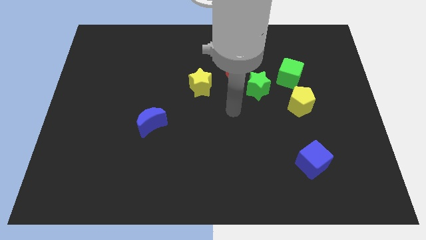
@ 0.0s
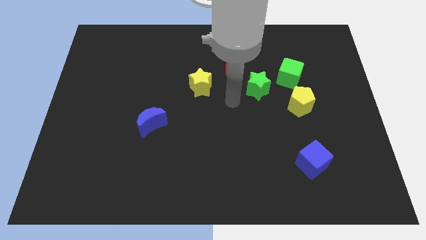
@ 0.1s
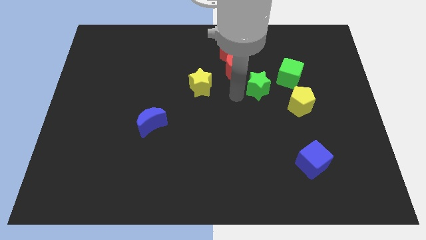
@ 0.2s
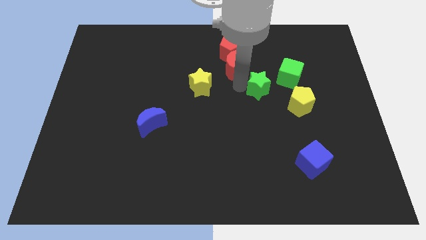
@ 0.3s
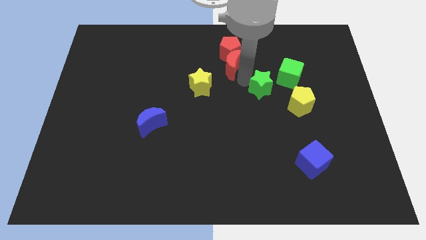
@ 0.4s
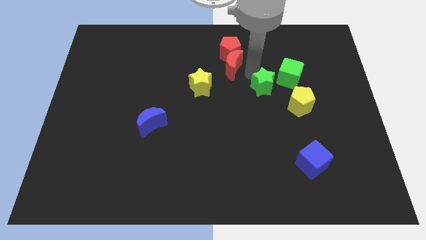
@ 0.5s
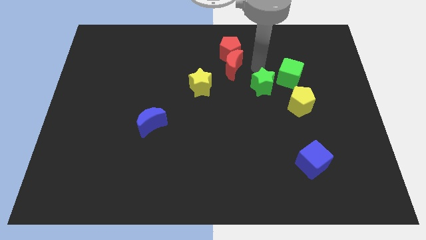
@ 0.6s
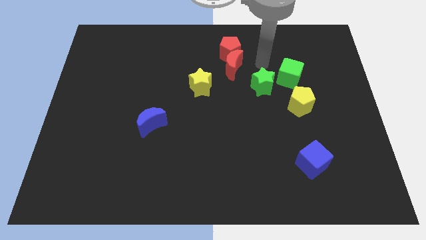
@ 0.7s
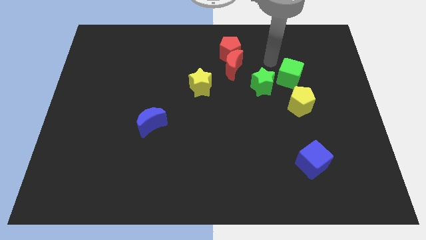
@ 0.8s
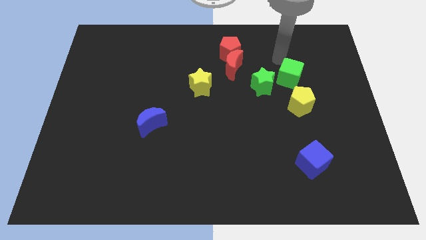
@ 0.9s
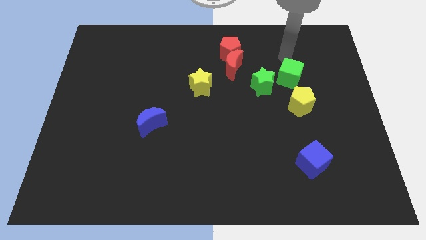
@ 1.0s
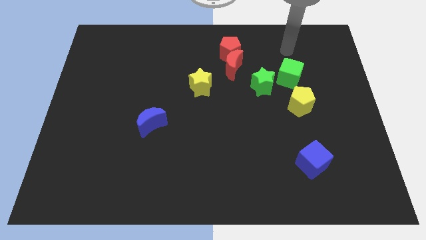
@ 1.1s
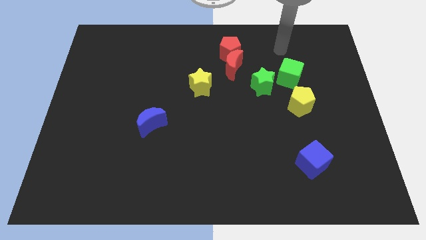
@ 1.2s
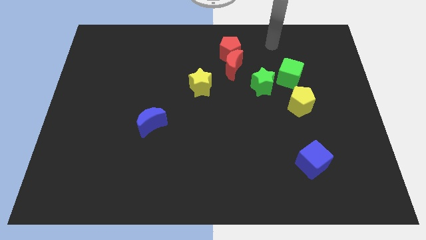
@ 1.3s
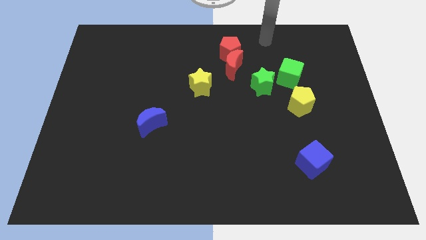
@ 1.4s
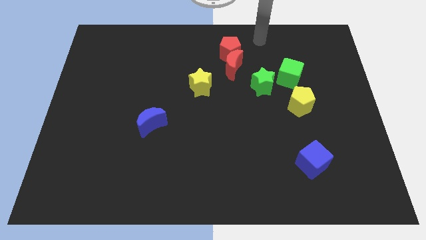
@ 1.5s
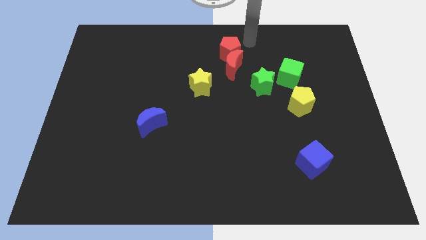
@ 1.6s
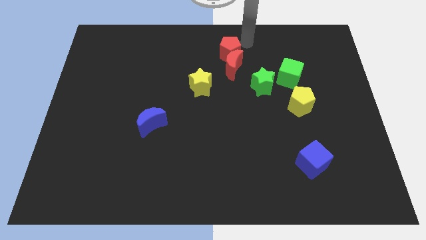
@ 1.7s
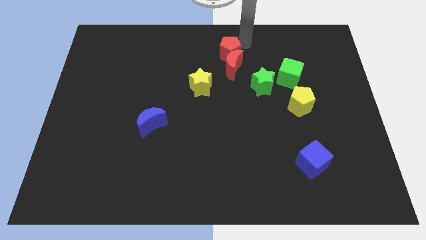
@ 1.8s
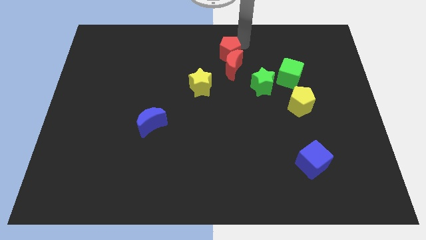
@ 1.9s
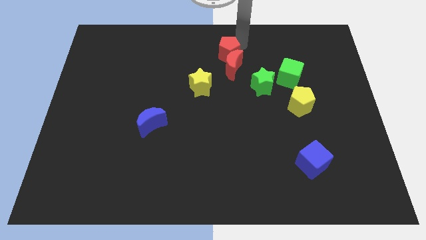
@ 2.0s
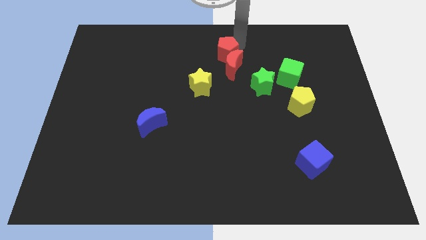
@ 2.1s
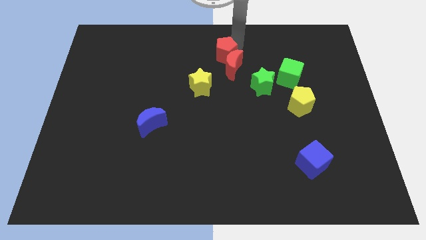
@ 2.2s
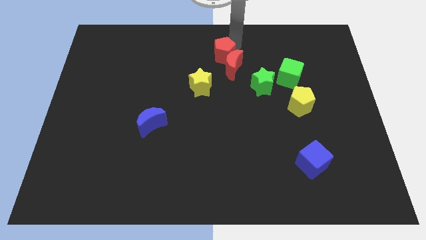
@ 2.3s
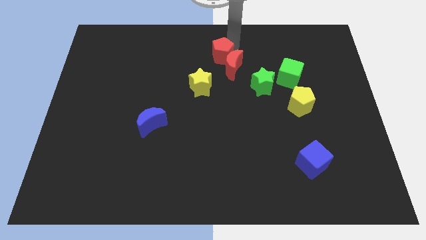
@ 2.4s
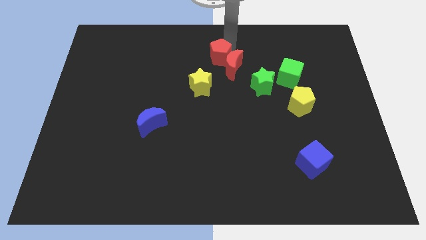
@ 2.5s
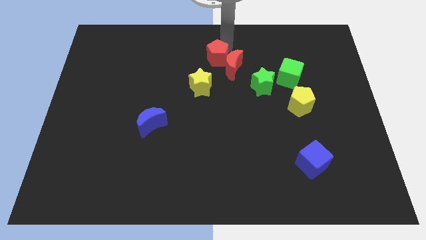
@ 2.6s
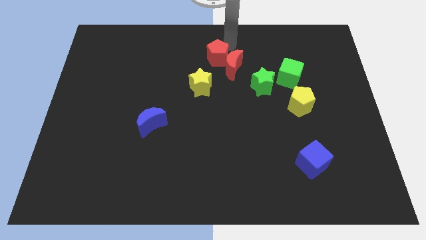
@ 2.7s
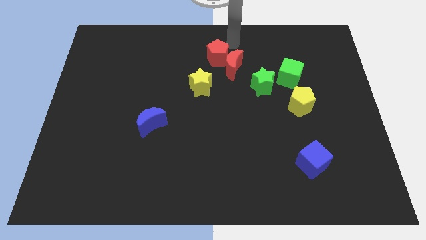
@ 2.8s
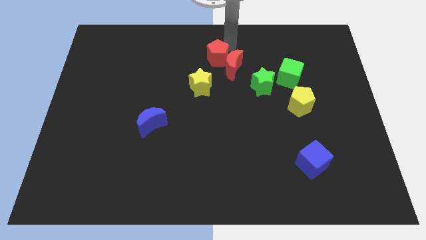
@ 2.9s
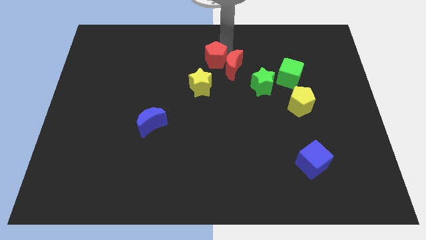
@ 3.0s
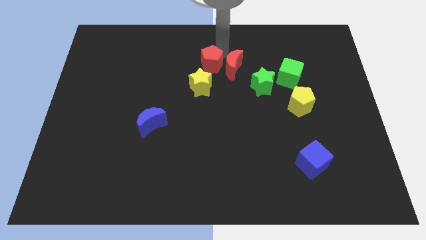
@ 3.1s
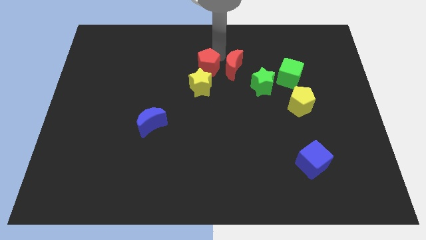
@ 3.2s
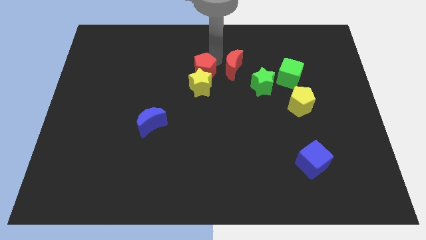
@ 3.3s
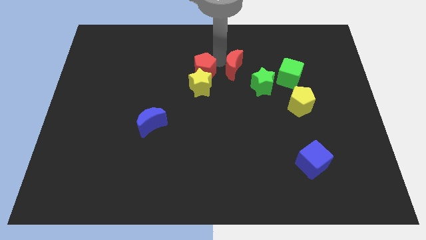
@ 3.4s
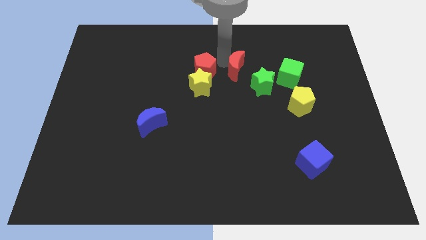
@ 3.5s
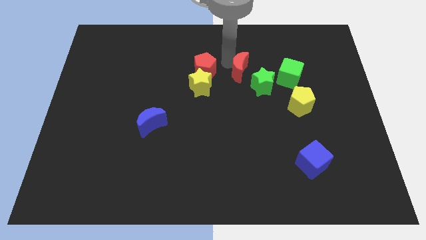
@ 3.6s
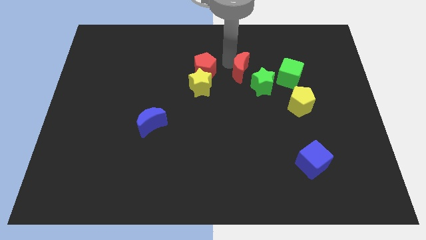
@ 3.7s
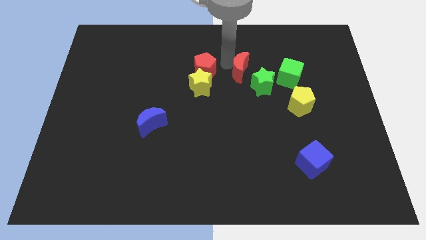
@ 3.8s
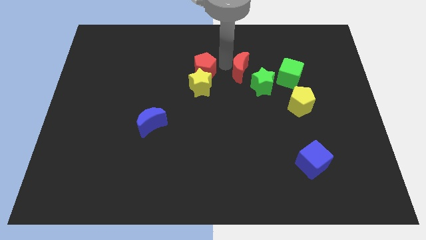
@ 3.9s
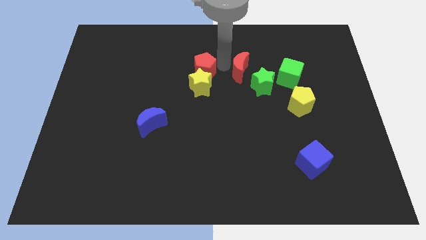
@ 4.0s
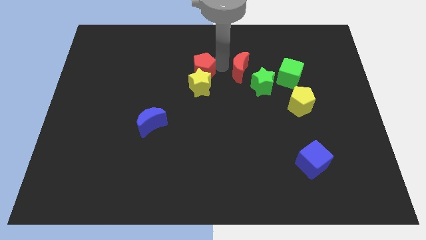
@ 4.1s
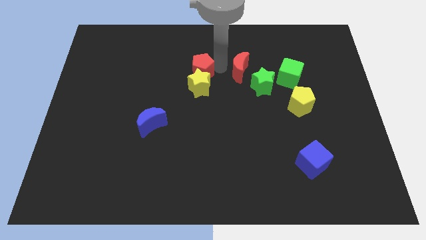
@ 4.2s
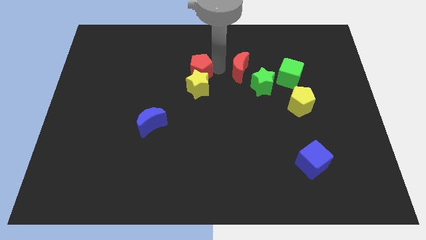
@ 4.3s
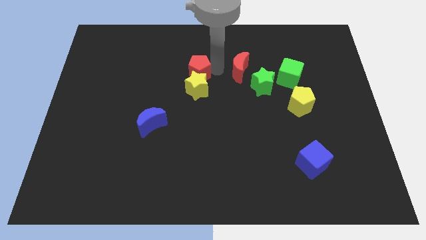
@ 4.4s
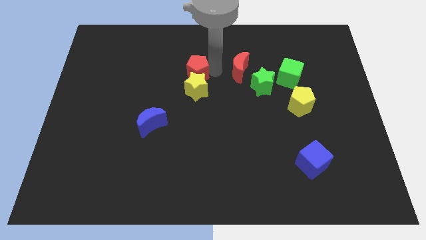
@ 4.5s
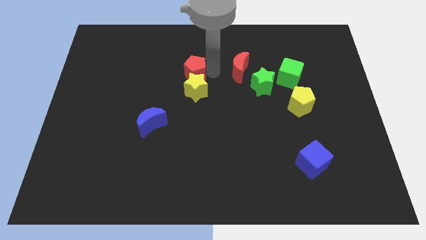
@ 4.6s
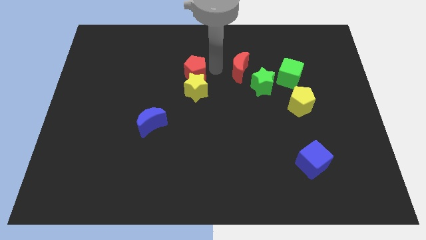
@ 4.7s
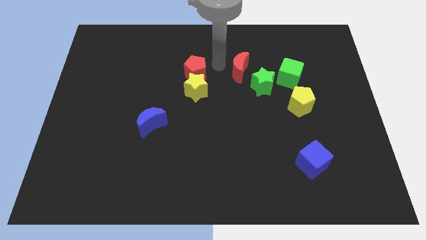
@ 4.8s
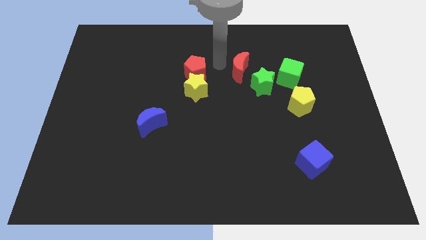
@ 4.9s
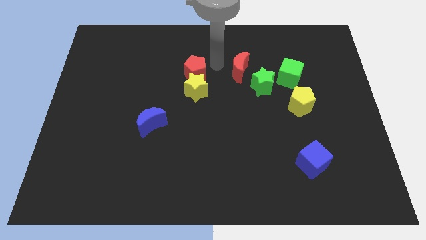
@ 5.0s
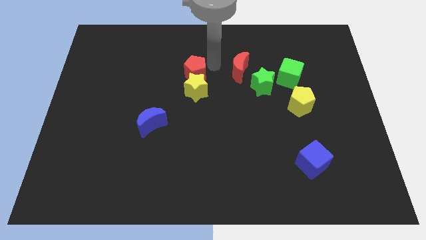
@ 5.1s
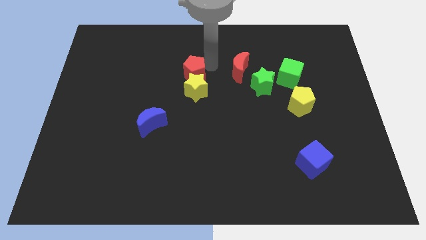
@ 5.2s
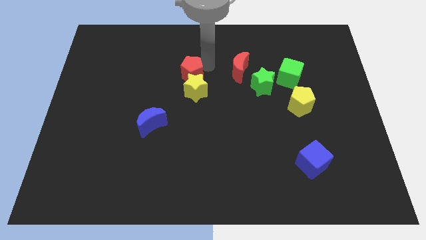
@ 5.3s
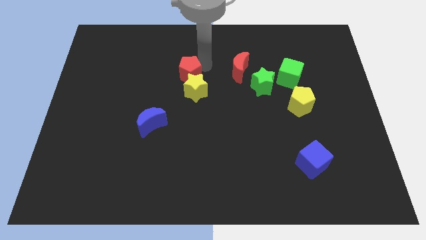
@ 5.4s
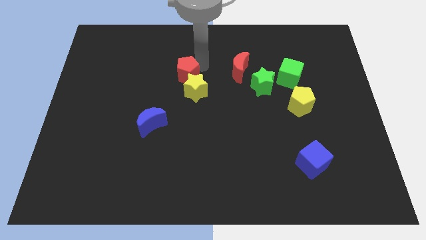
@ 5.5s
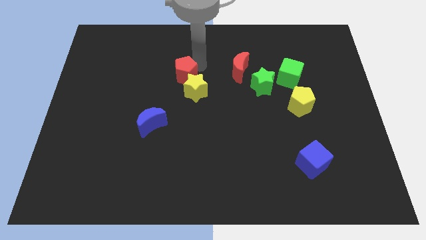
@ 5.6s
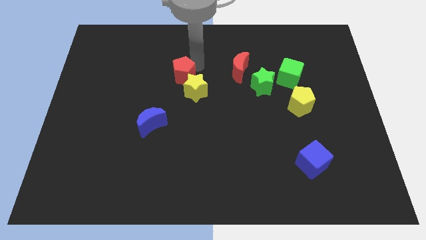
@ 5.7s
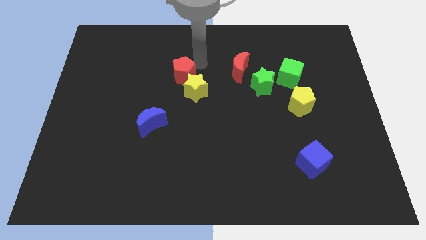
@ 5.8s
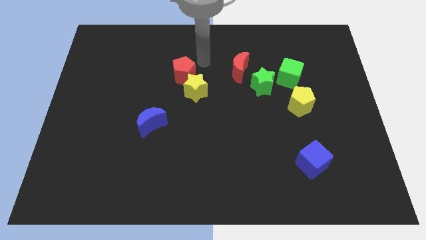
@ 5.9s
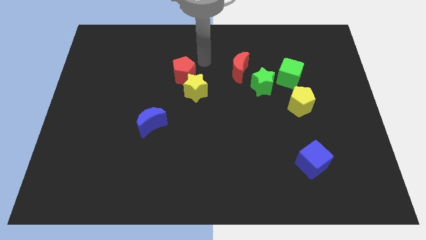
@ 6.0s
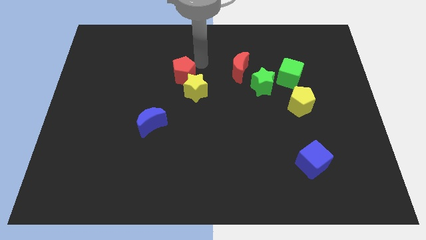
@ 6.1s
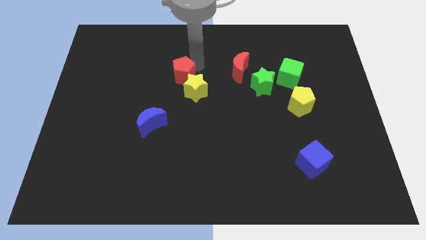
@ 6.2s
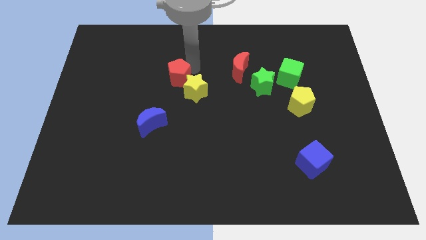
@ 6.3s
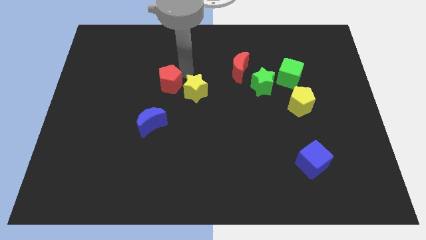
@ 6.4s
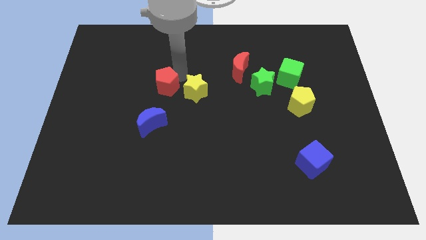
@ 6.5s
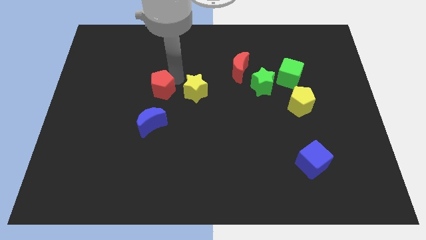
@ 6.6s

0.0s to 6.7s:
push the red pentagon down and left

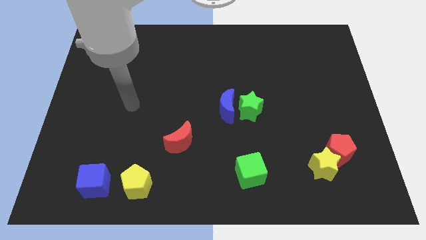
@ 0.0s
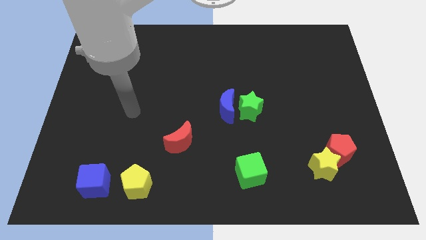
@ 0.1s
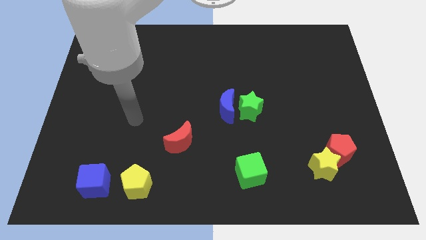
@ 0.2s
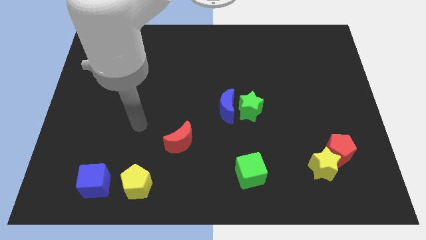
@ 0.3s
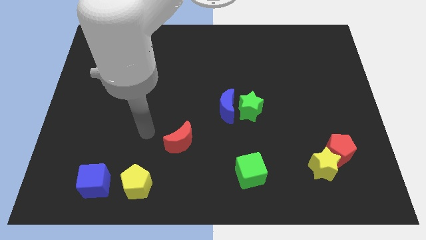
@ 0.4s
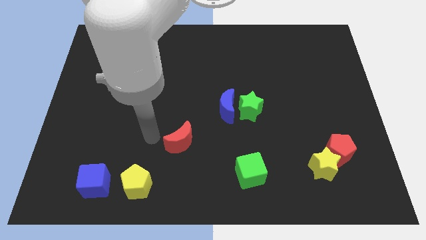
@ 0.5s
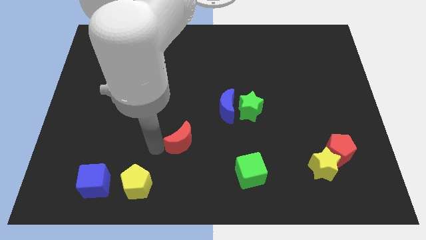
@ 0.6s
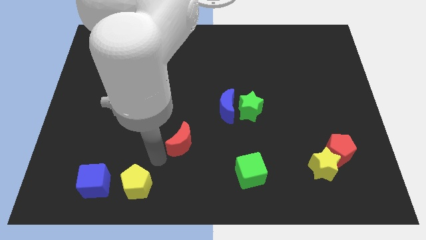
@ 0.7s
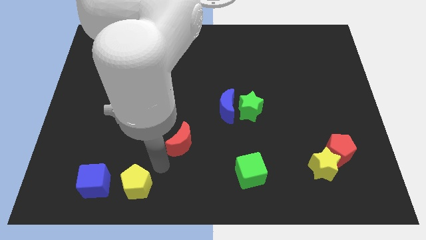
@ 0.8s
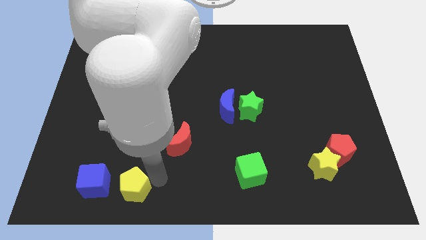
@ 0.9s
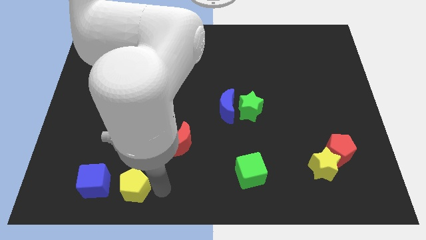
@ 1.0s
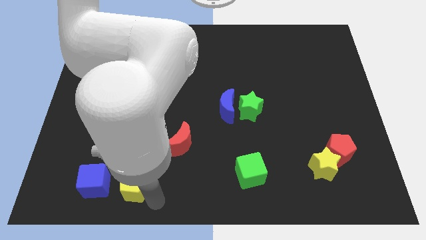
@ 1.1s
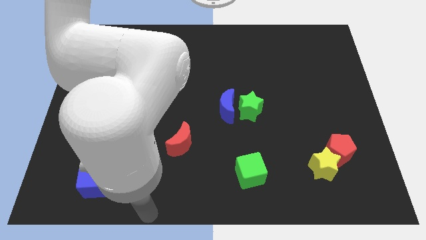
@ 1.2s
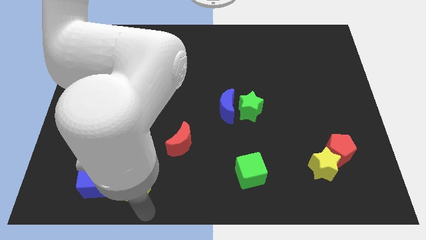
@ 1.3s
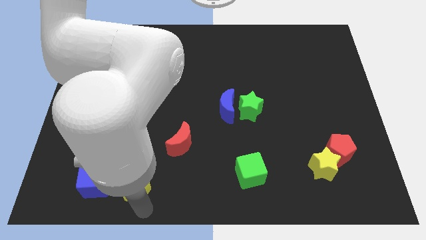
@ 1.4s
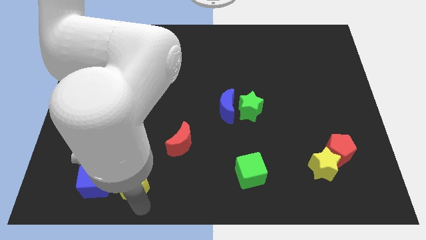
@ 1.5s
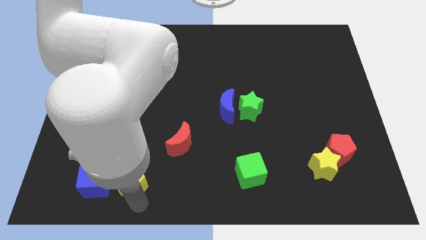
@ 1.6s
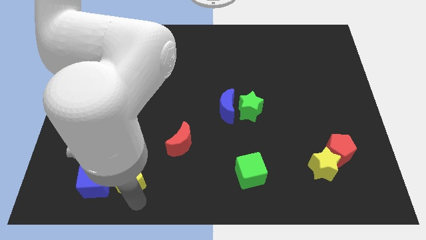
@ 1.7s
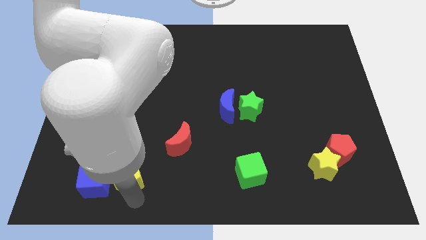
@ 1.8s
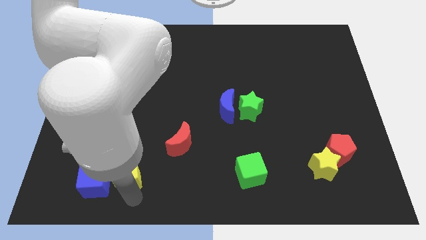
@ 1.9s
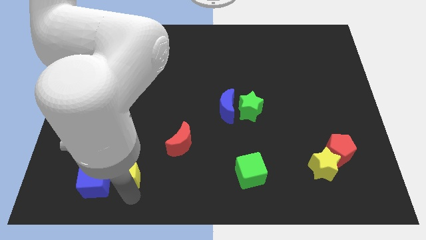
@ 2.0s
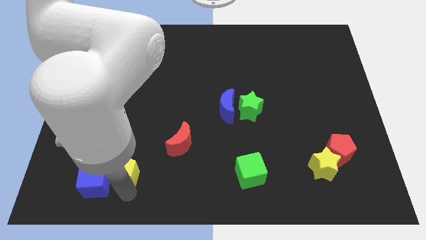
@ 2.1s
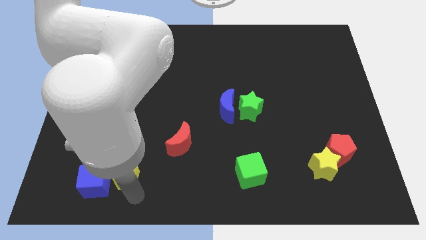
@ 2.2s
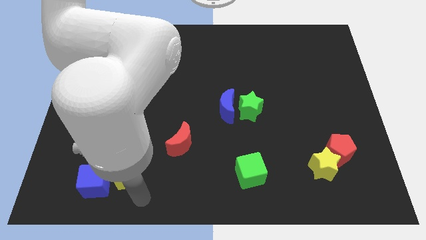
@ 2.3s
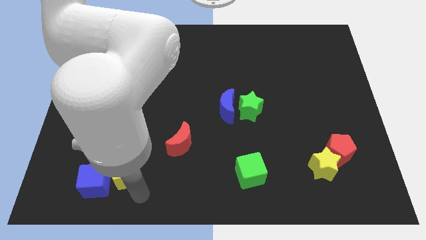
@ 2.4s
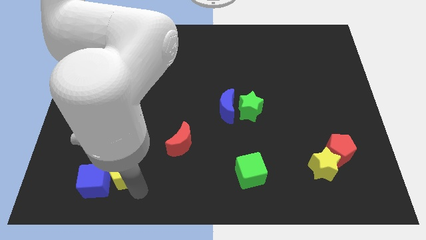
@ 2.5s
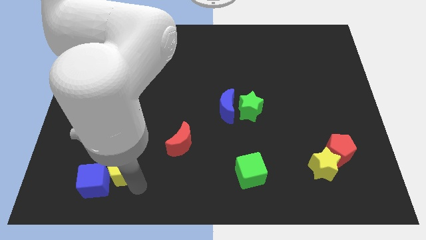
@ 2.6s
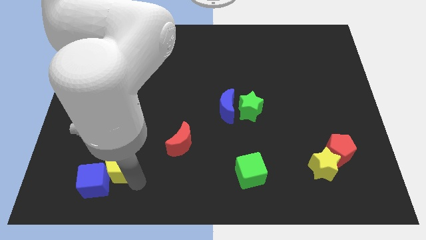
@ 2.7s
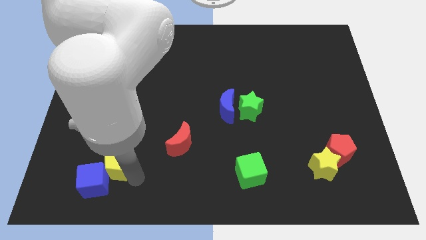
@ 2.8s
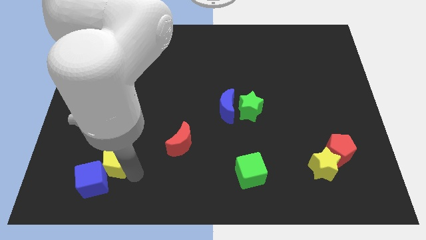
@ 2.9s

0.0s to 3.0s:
slide the yellow pentagon a little bit upwards and left diagonally
